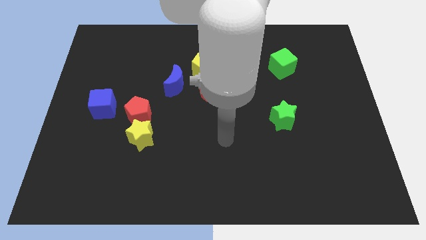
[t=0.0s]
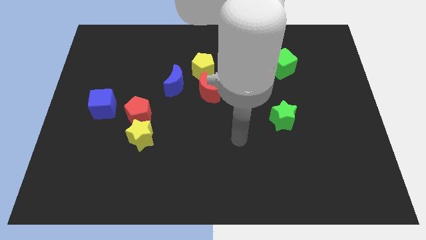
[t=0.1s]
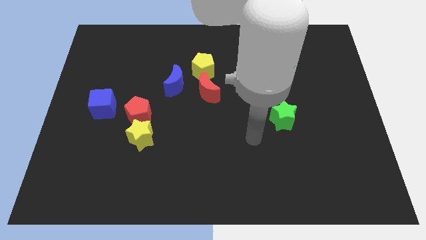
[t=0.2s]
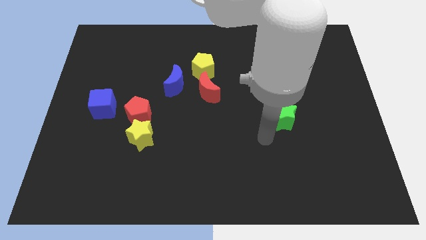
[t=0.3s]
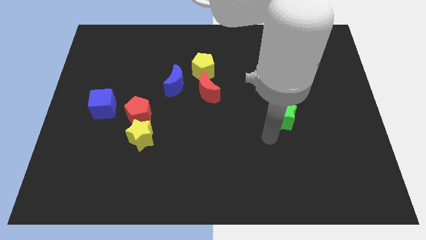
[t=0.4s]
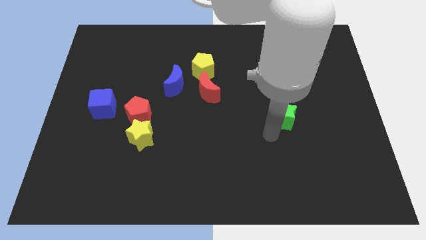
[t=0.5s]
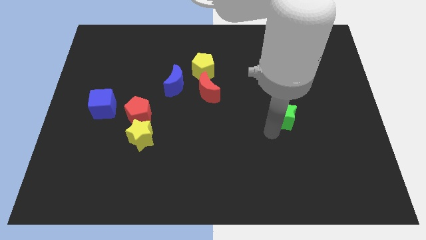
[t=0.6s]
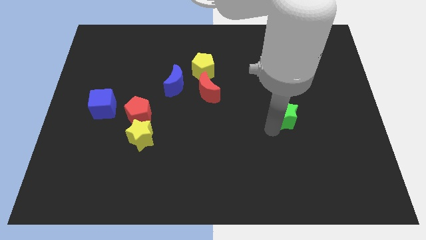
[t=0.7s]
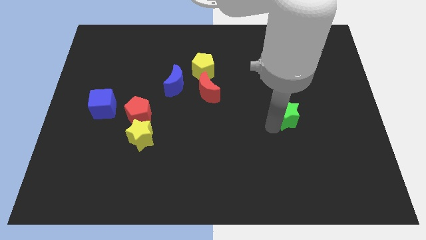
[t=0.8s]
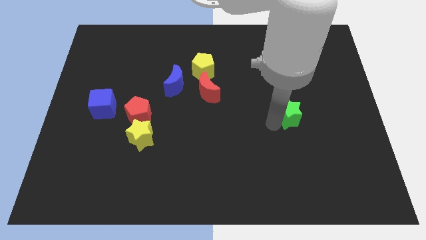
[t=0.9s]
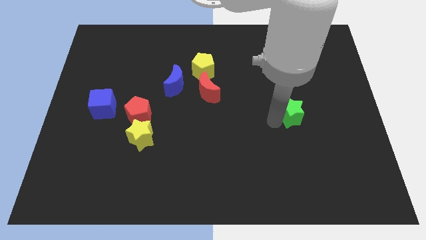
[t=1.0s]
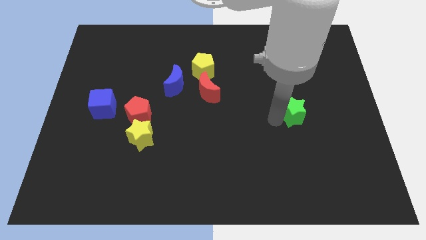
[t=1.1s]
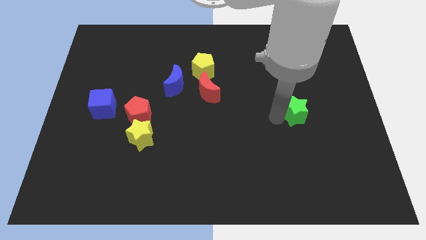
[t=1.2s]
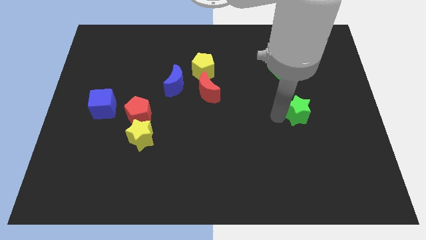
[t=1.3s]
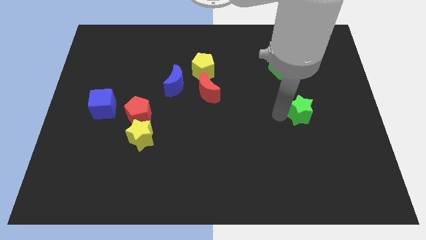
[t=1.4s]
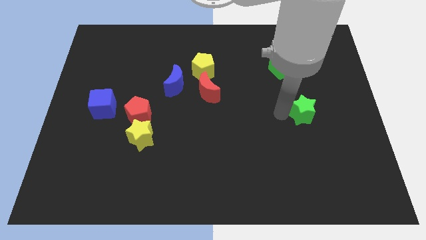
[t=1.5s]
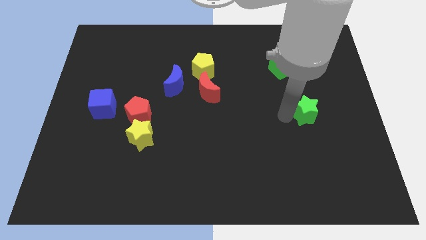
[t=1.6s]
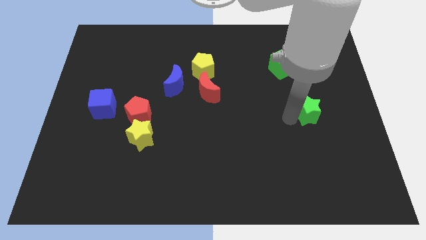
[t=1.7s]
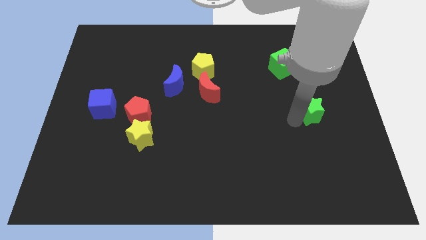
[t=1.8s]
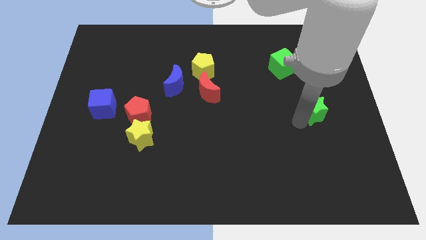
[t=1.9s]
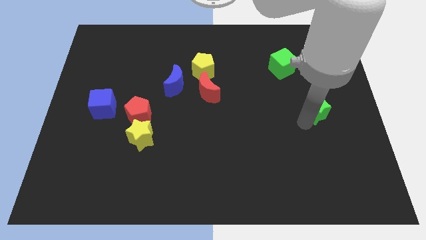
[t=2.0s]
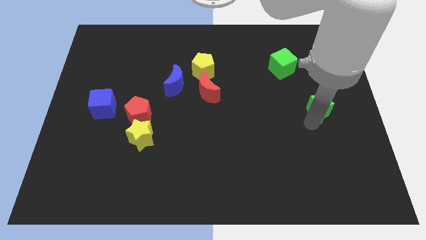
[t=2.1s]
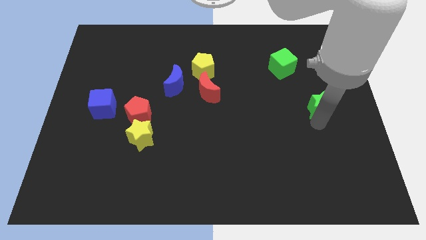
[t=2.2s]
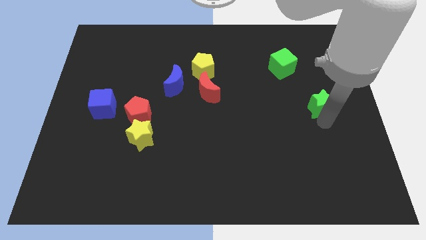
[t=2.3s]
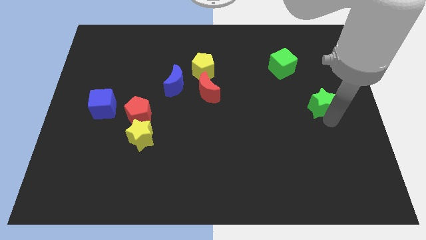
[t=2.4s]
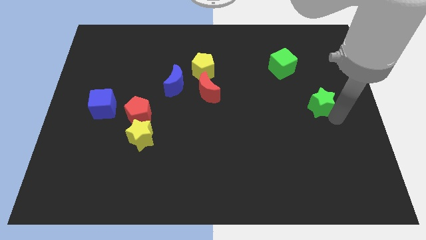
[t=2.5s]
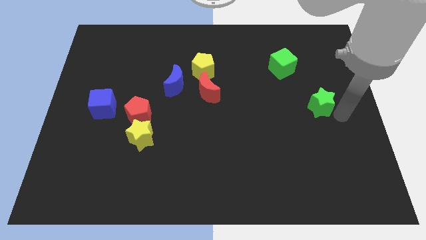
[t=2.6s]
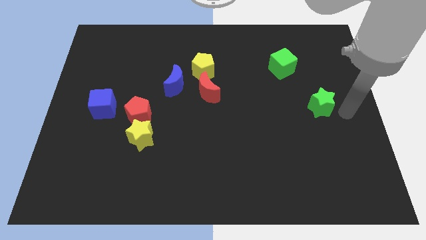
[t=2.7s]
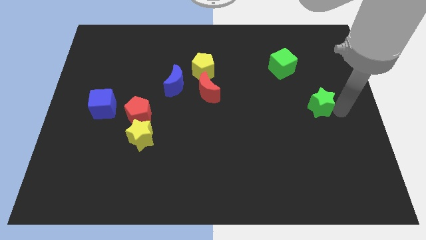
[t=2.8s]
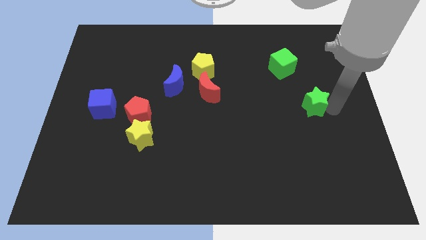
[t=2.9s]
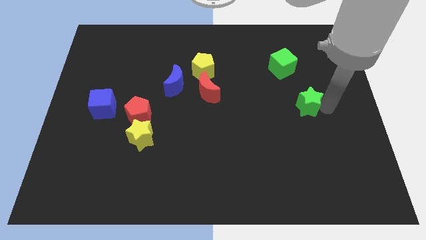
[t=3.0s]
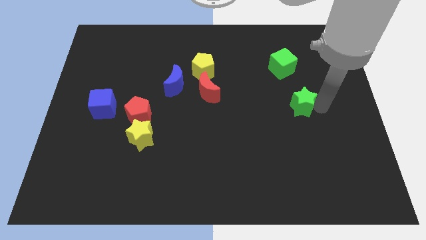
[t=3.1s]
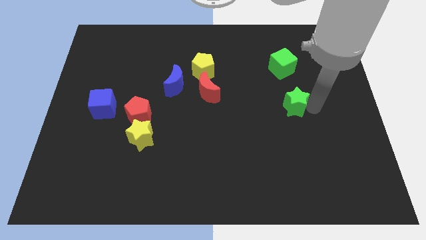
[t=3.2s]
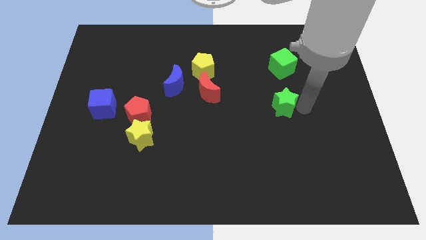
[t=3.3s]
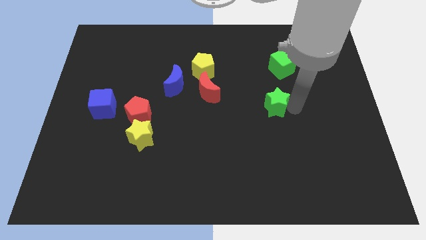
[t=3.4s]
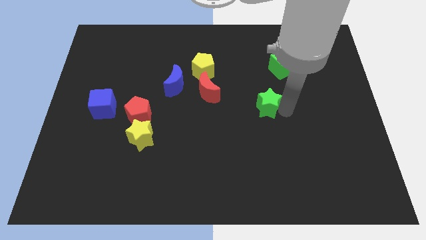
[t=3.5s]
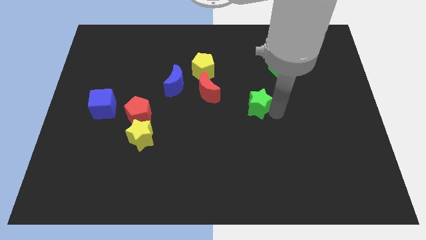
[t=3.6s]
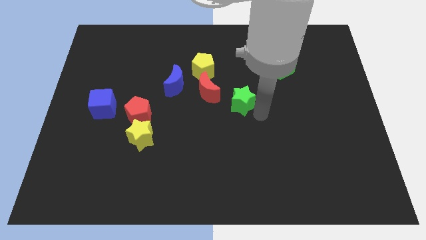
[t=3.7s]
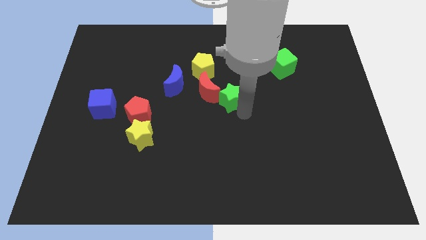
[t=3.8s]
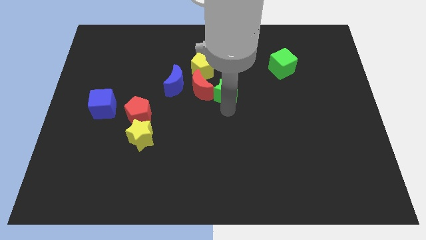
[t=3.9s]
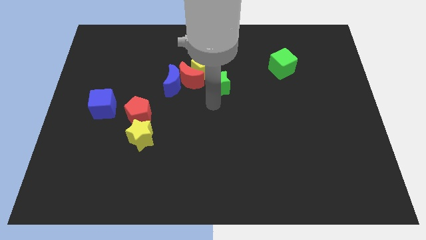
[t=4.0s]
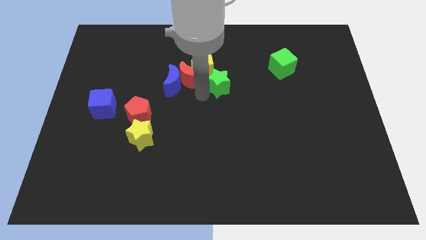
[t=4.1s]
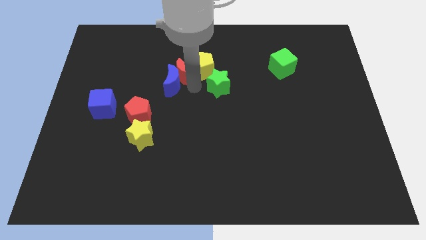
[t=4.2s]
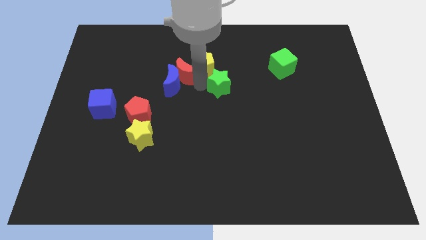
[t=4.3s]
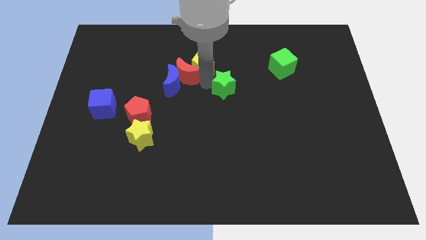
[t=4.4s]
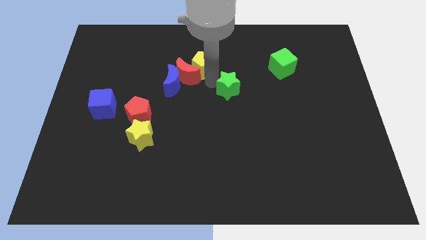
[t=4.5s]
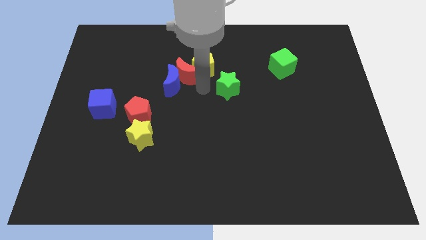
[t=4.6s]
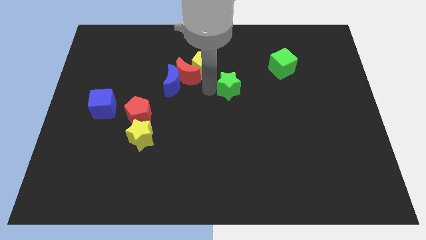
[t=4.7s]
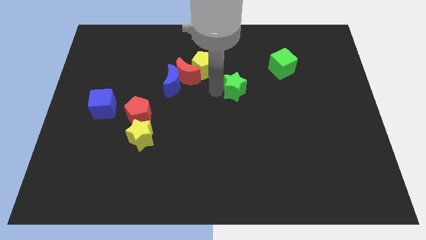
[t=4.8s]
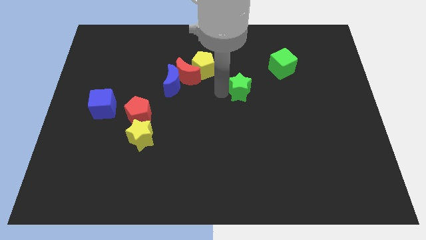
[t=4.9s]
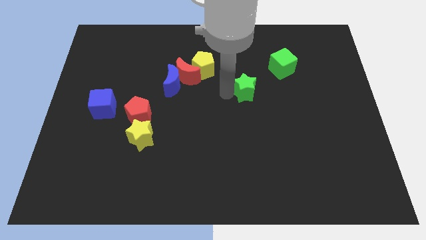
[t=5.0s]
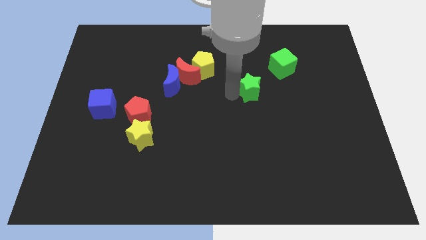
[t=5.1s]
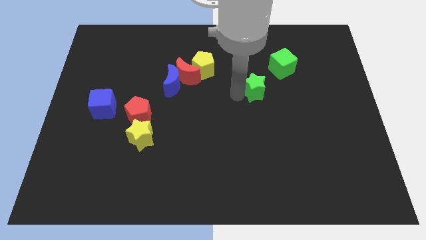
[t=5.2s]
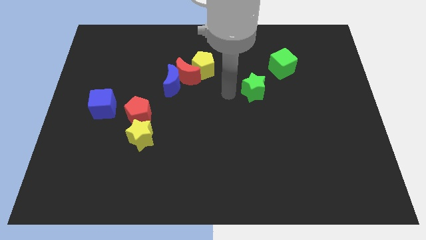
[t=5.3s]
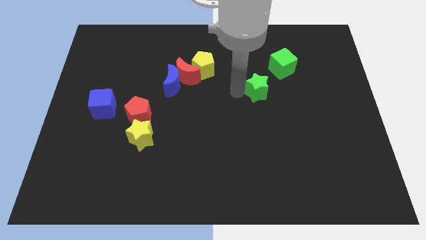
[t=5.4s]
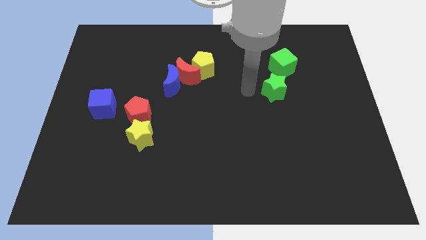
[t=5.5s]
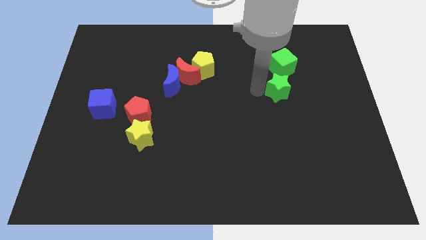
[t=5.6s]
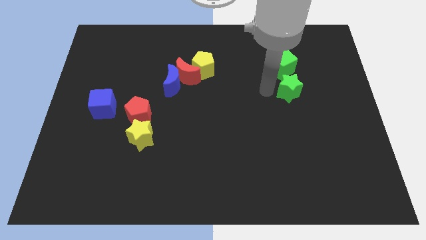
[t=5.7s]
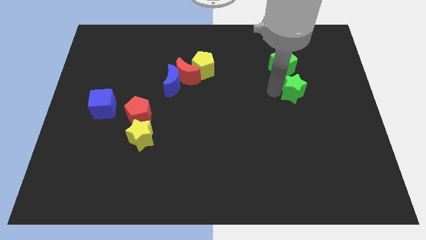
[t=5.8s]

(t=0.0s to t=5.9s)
move the green star to the bottom right side of the green cube

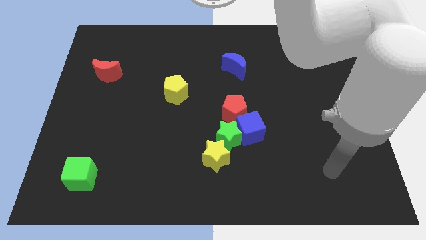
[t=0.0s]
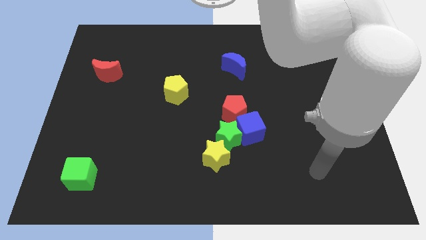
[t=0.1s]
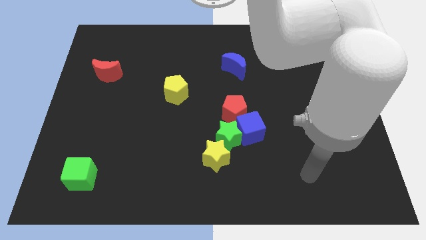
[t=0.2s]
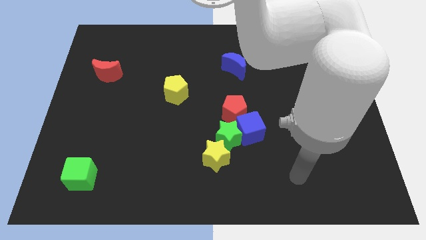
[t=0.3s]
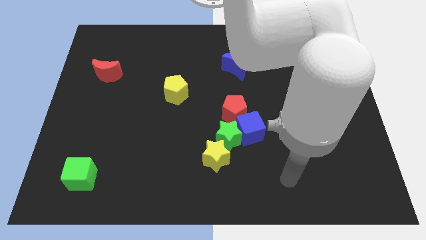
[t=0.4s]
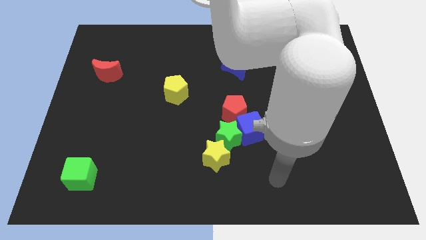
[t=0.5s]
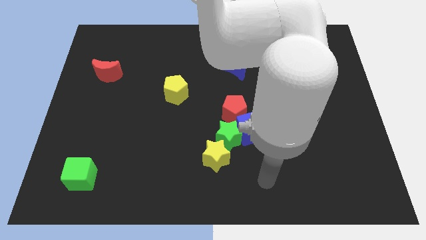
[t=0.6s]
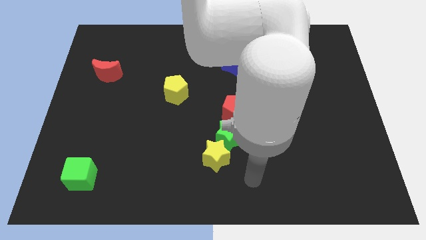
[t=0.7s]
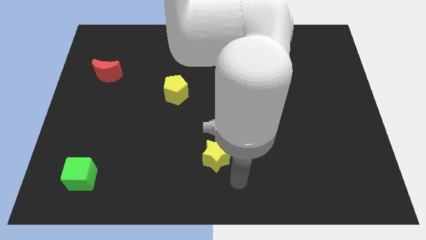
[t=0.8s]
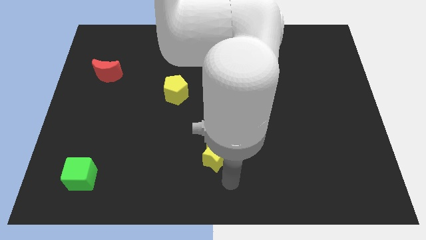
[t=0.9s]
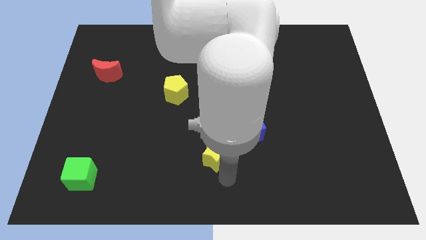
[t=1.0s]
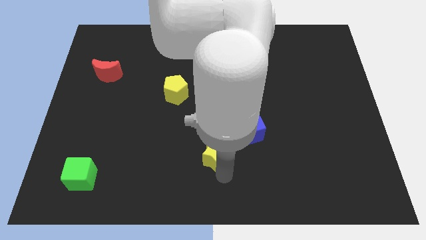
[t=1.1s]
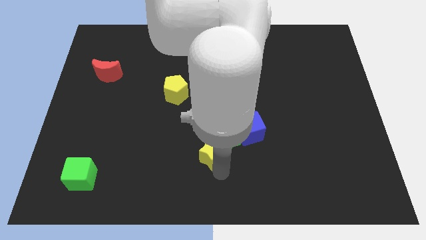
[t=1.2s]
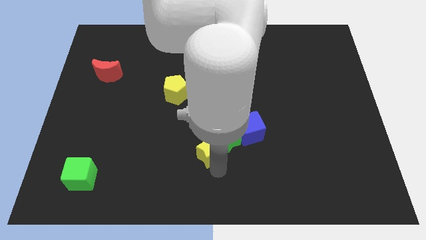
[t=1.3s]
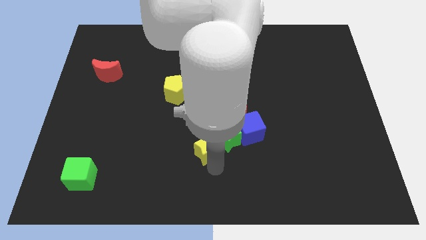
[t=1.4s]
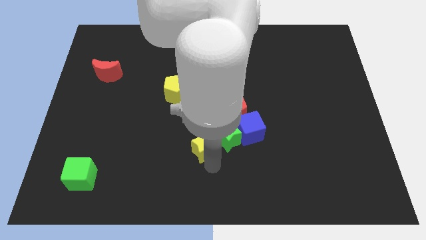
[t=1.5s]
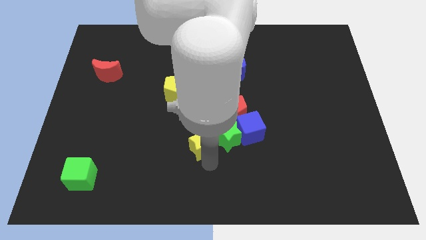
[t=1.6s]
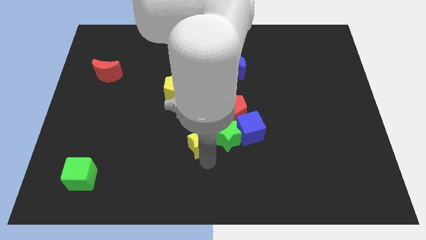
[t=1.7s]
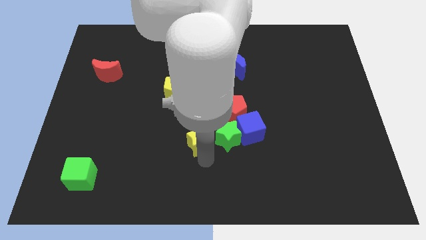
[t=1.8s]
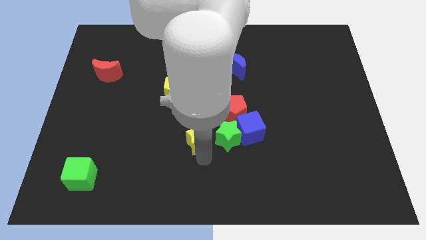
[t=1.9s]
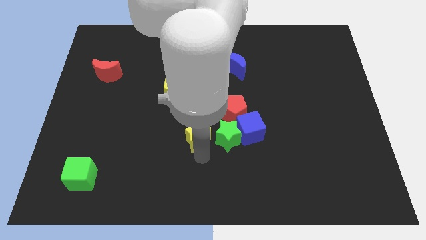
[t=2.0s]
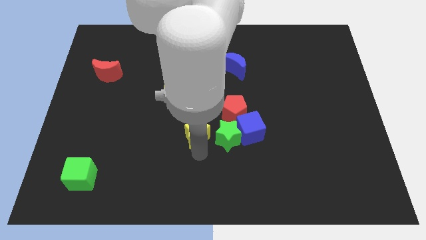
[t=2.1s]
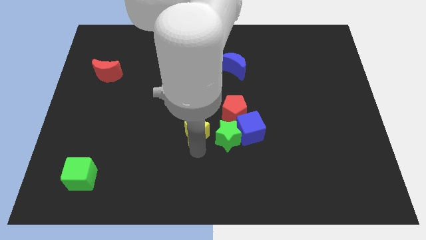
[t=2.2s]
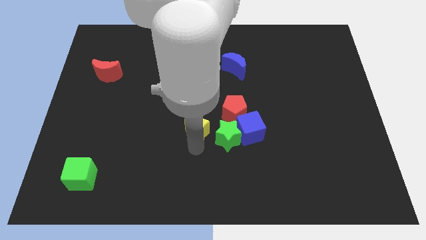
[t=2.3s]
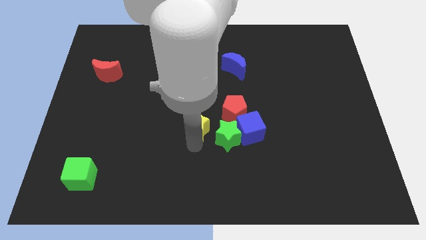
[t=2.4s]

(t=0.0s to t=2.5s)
push the yellow star diagonally down and to the right of the yellow pentagon
